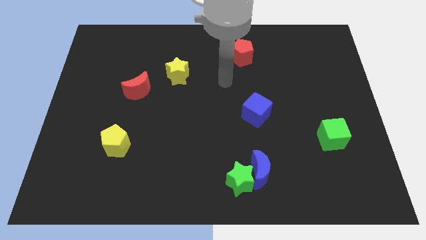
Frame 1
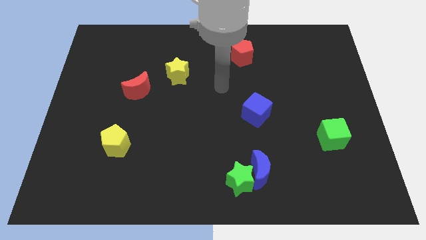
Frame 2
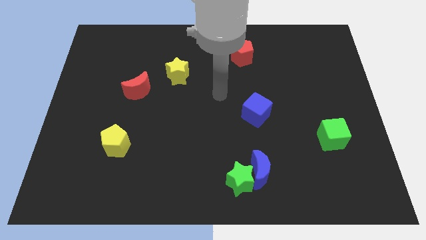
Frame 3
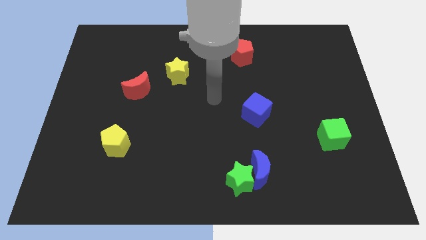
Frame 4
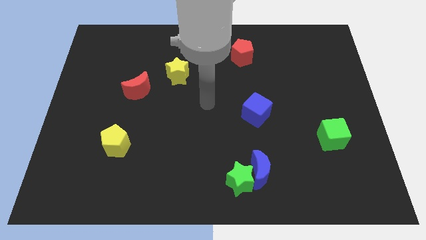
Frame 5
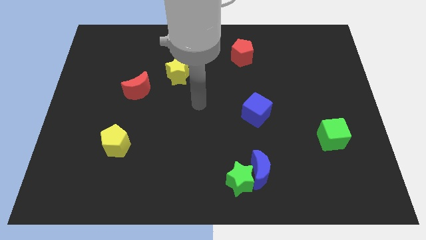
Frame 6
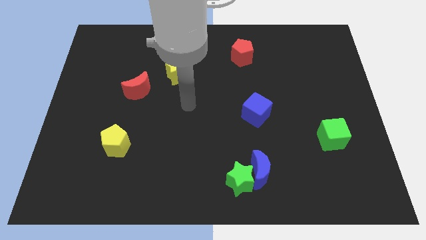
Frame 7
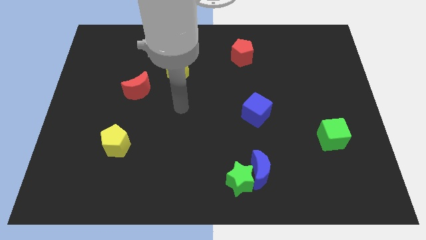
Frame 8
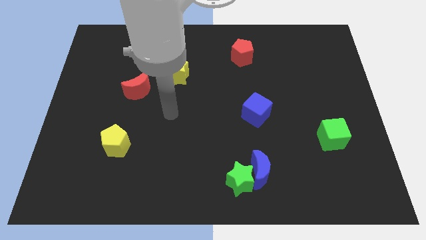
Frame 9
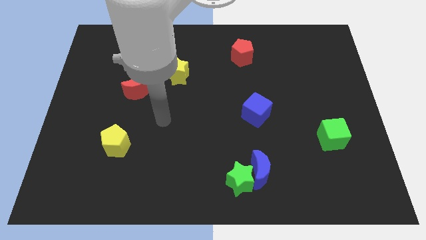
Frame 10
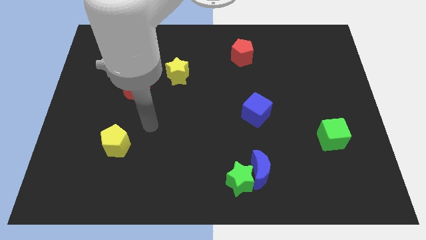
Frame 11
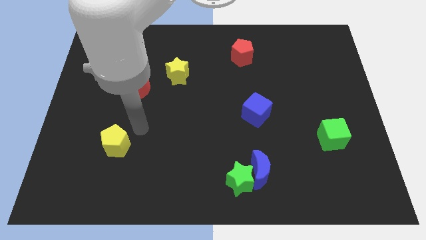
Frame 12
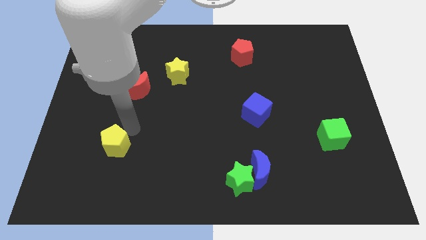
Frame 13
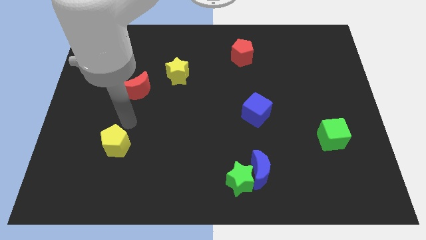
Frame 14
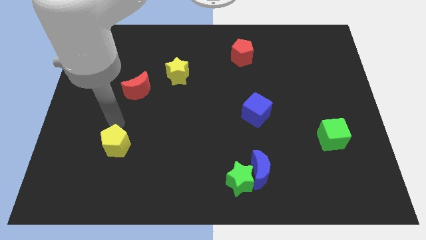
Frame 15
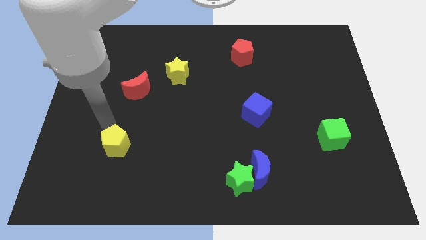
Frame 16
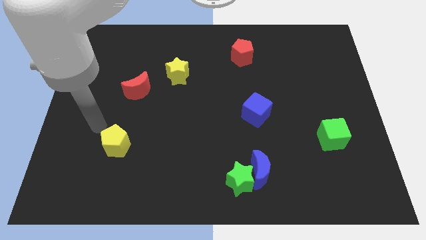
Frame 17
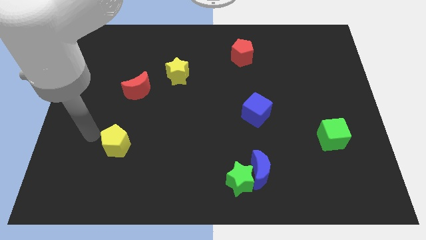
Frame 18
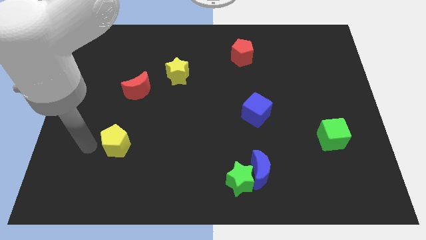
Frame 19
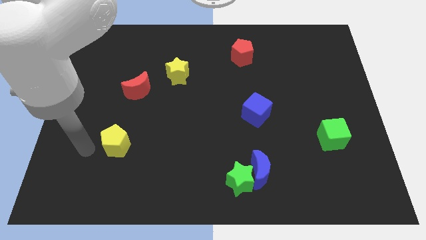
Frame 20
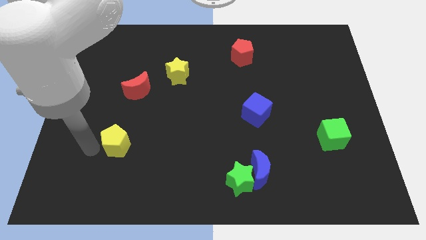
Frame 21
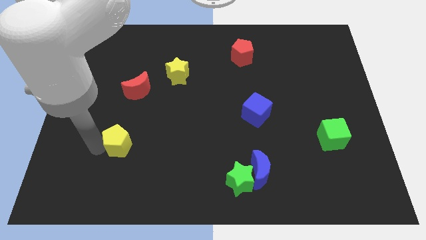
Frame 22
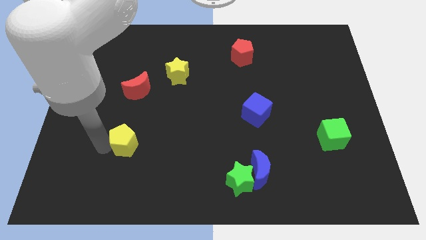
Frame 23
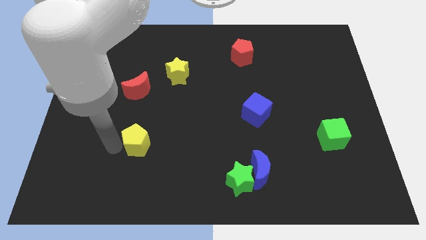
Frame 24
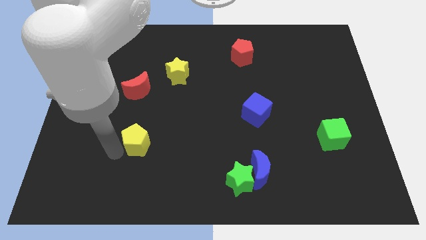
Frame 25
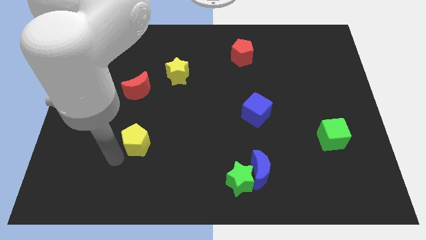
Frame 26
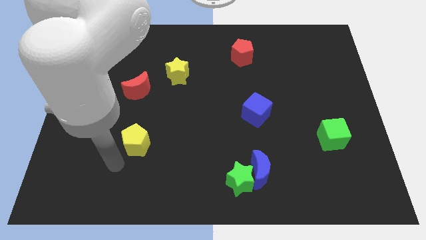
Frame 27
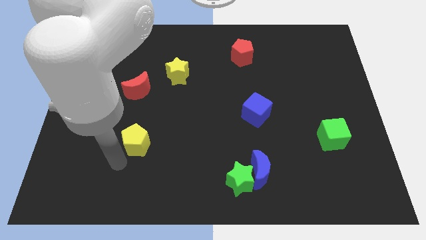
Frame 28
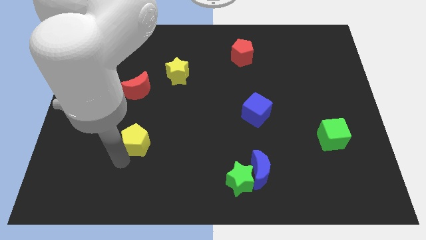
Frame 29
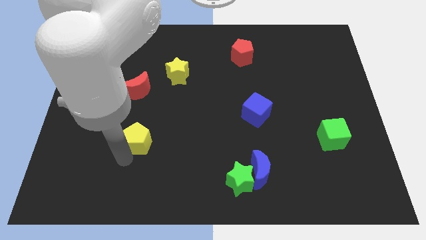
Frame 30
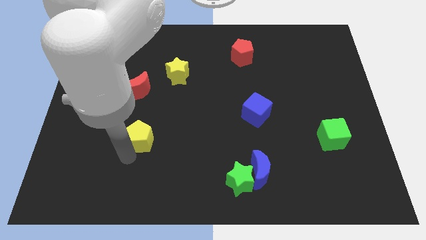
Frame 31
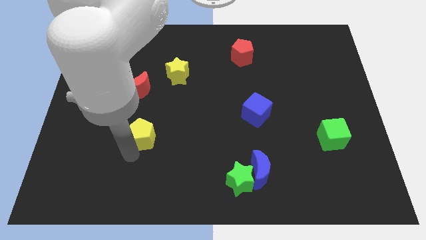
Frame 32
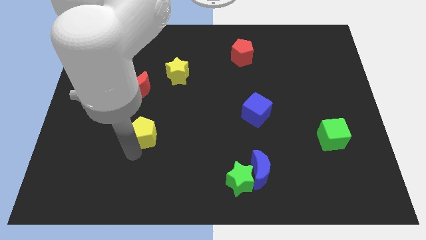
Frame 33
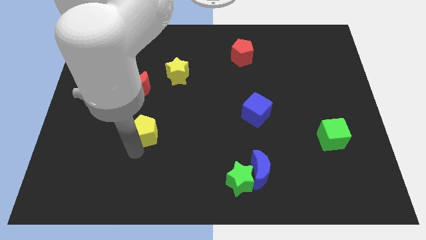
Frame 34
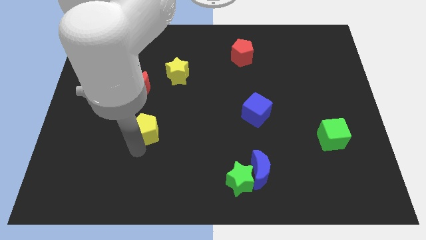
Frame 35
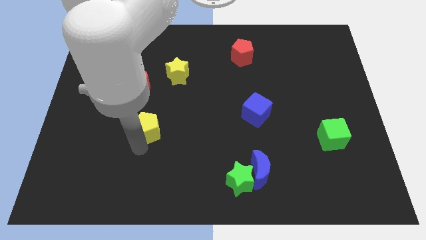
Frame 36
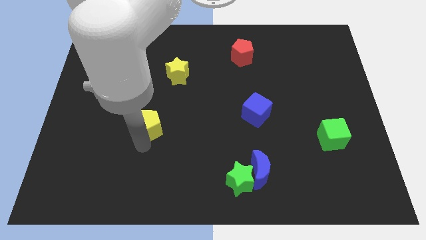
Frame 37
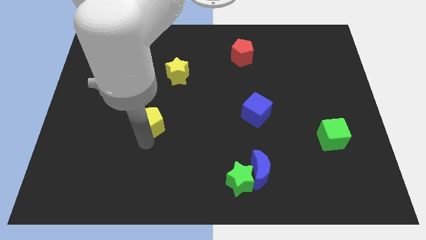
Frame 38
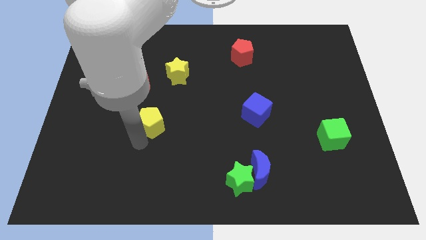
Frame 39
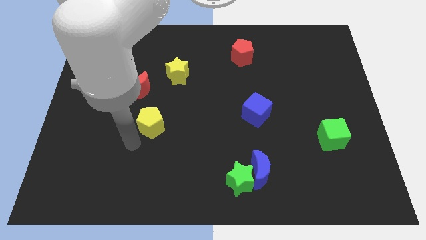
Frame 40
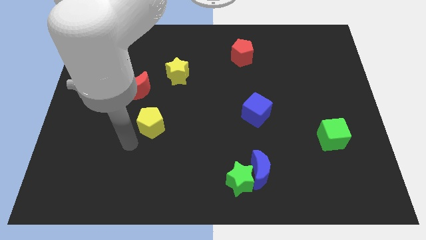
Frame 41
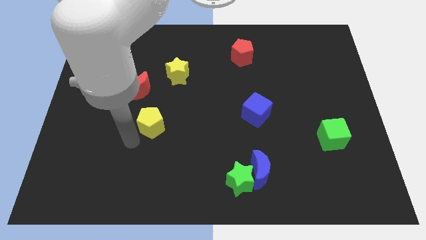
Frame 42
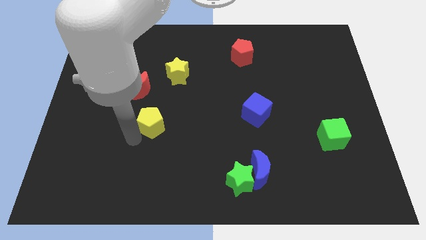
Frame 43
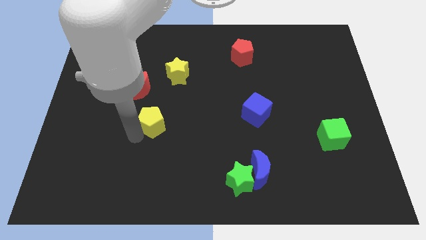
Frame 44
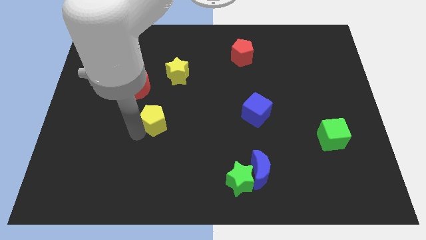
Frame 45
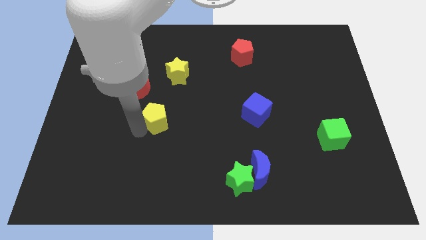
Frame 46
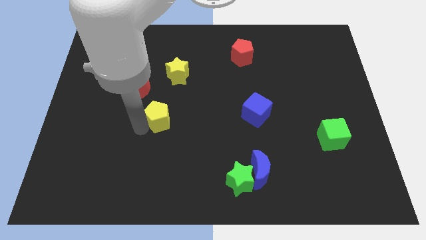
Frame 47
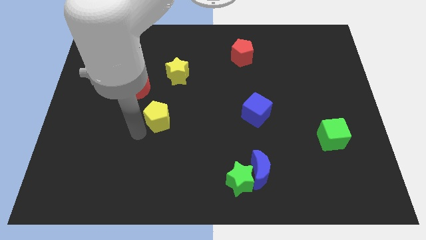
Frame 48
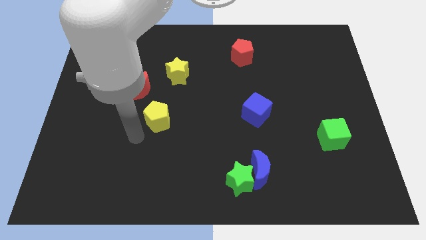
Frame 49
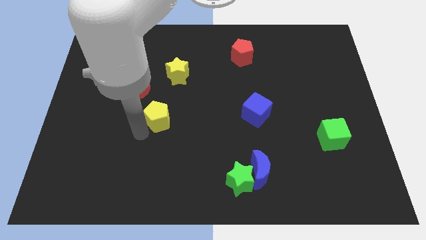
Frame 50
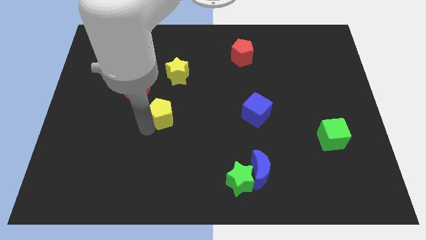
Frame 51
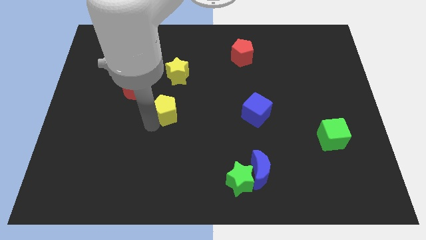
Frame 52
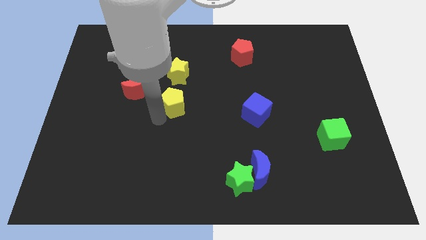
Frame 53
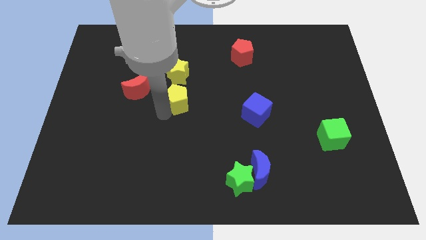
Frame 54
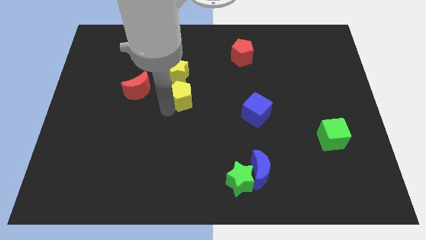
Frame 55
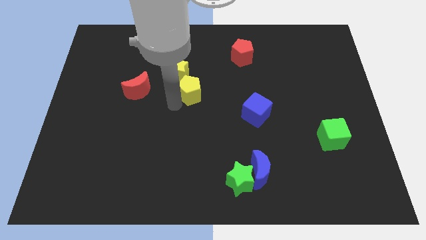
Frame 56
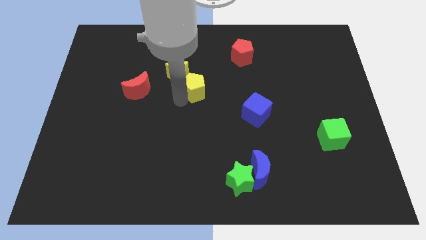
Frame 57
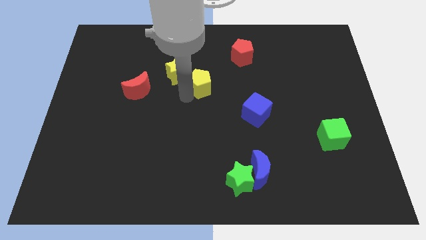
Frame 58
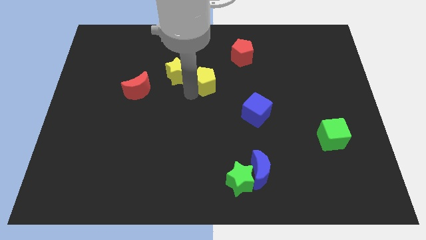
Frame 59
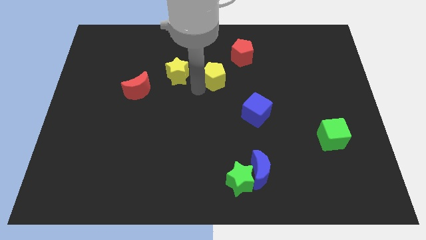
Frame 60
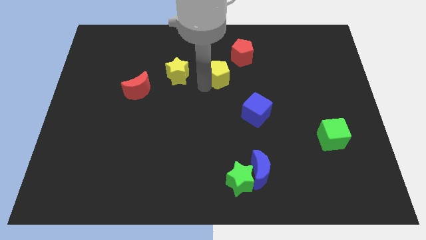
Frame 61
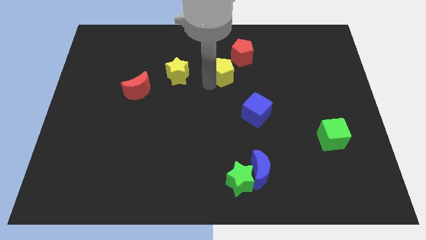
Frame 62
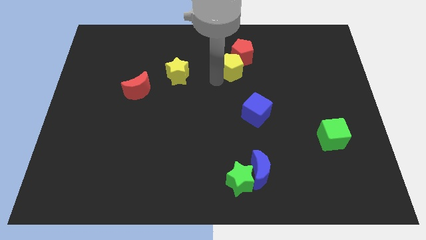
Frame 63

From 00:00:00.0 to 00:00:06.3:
push the yellow pentagon next to the red pentagon
